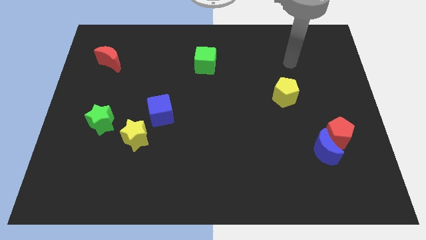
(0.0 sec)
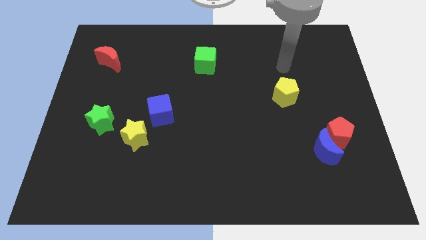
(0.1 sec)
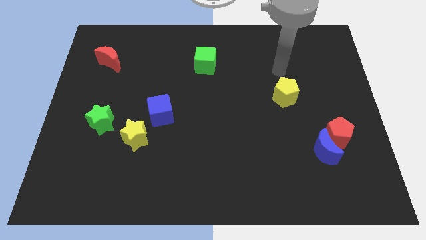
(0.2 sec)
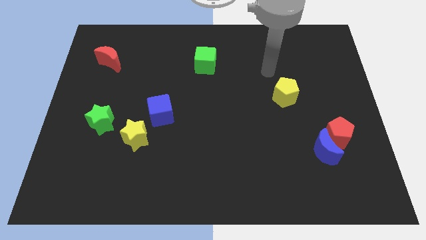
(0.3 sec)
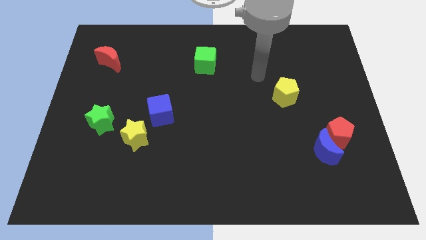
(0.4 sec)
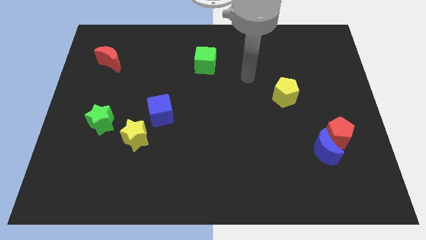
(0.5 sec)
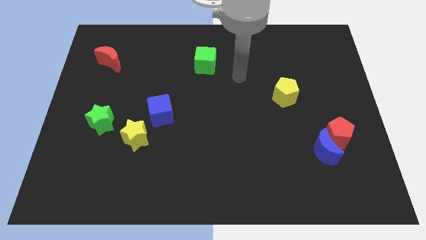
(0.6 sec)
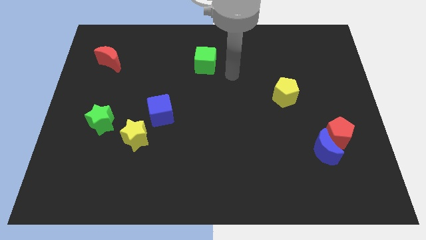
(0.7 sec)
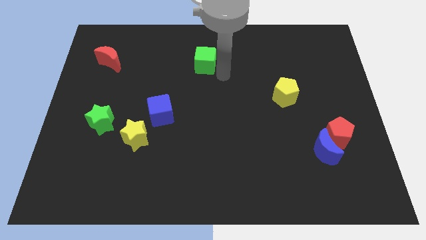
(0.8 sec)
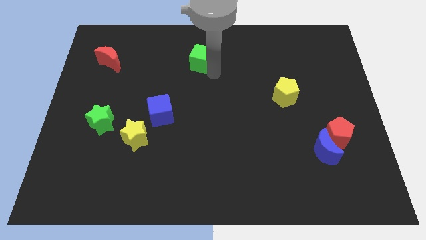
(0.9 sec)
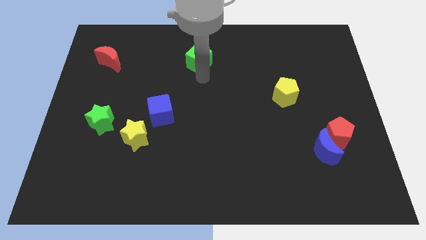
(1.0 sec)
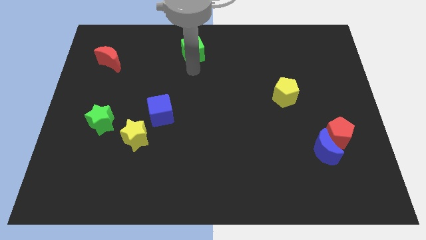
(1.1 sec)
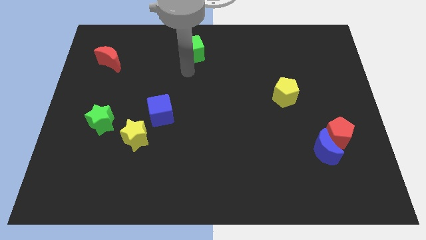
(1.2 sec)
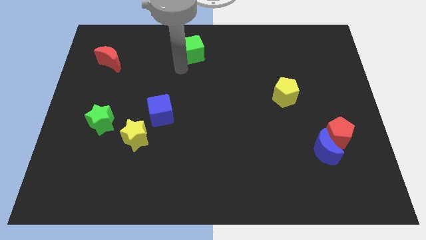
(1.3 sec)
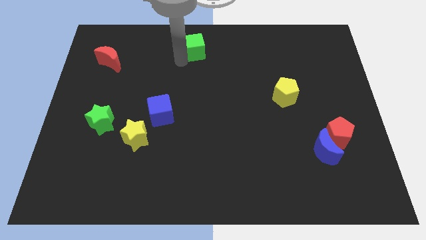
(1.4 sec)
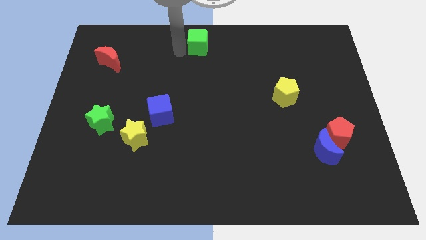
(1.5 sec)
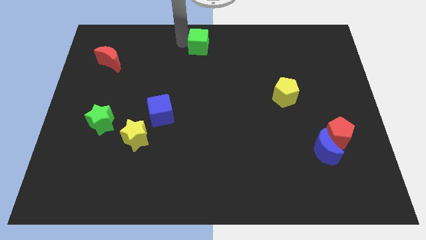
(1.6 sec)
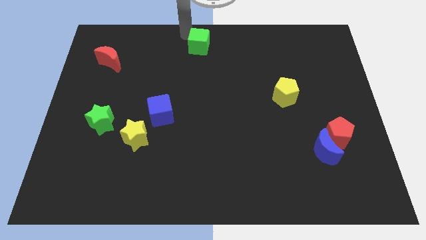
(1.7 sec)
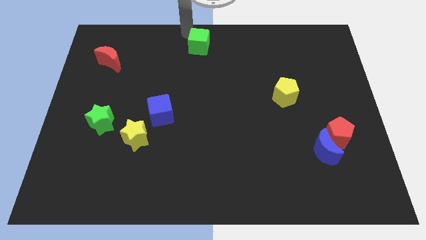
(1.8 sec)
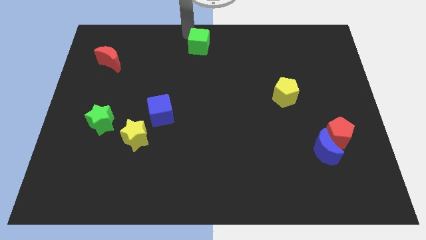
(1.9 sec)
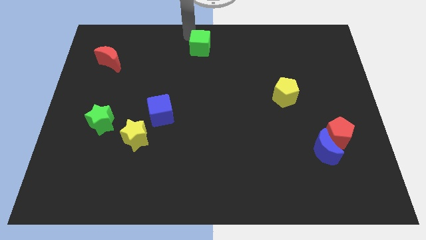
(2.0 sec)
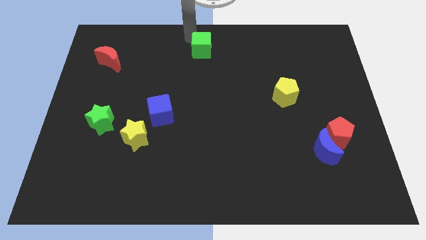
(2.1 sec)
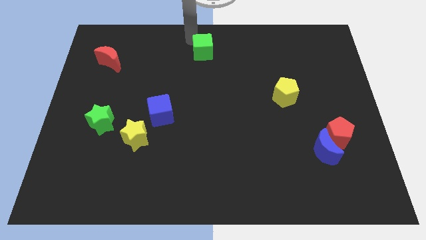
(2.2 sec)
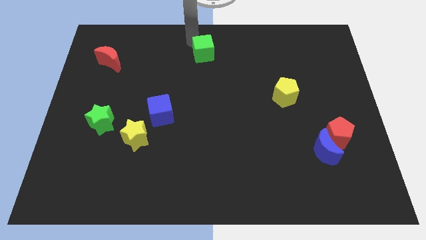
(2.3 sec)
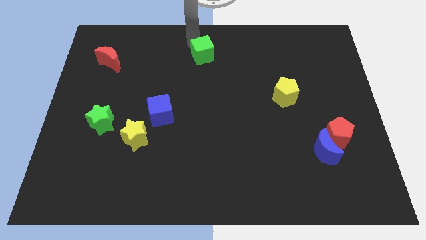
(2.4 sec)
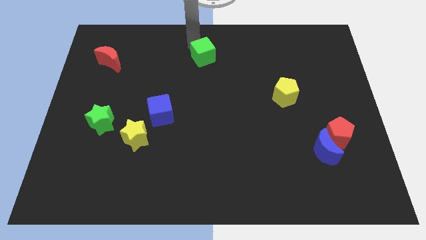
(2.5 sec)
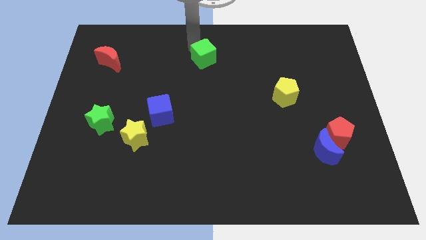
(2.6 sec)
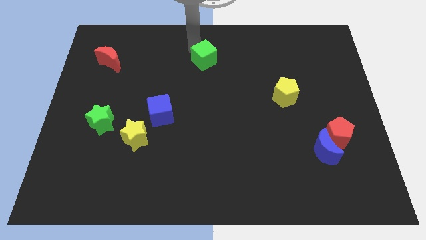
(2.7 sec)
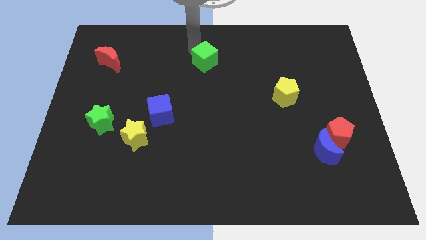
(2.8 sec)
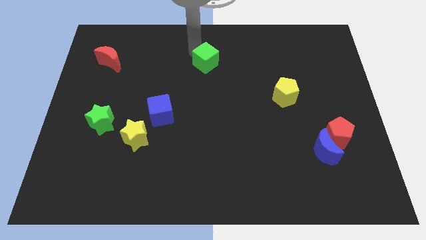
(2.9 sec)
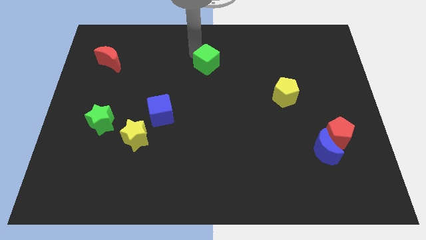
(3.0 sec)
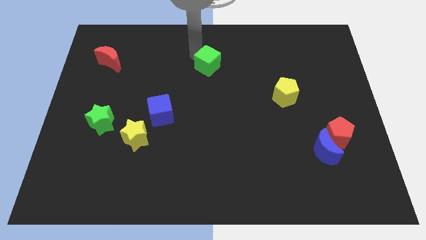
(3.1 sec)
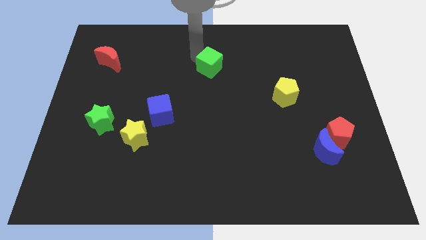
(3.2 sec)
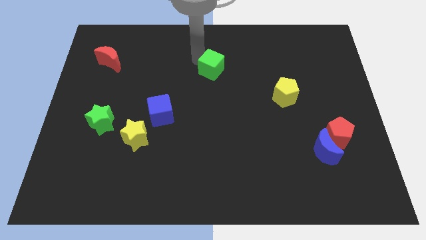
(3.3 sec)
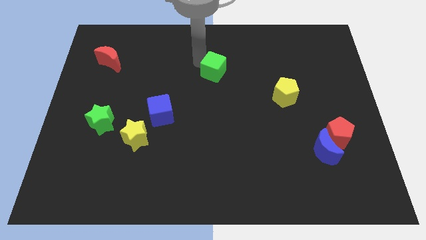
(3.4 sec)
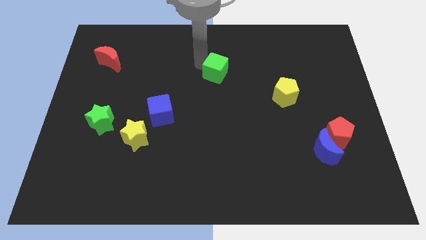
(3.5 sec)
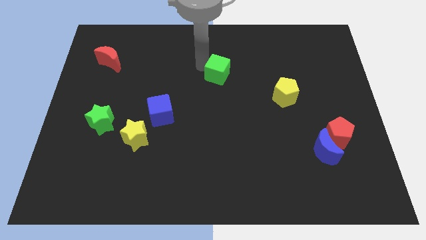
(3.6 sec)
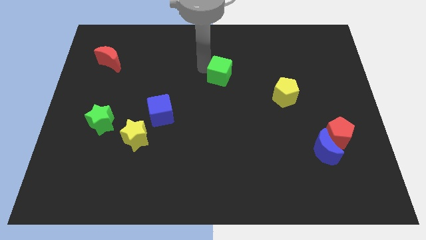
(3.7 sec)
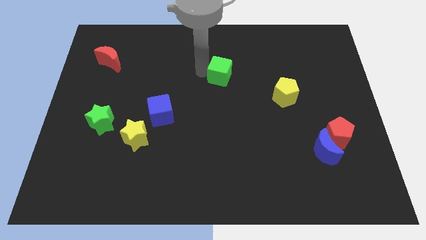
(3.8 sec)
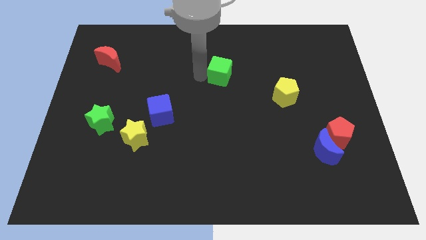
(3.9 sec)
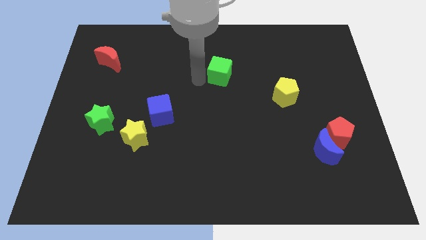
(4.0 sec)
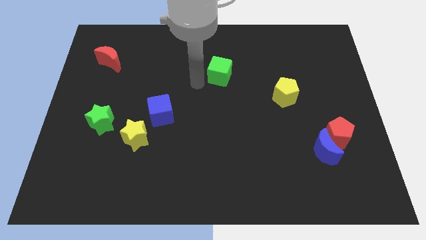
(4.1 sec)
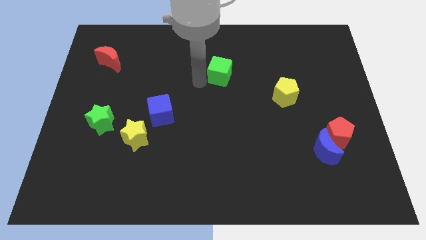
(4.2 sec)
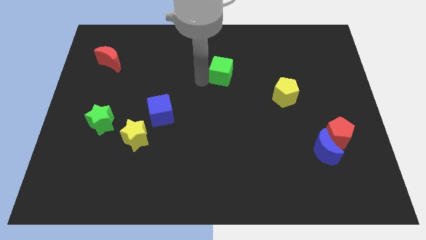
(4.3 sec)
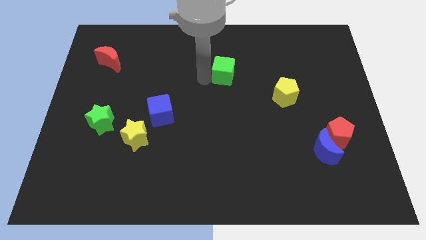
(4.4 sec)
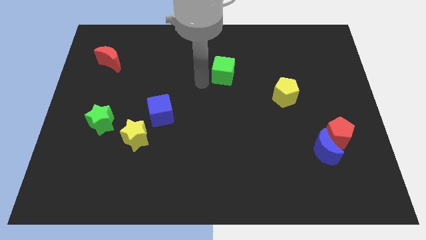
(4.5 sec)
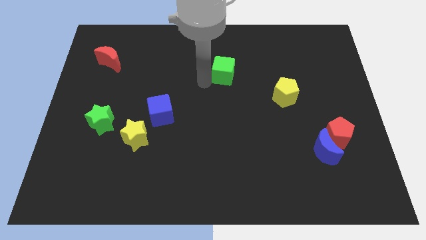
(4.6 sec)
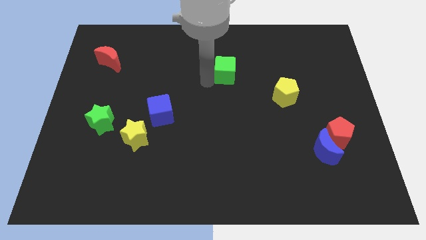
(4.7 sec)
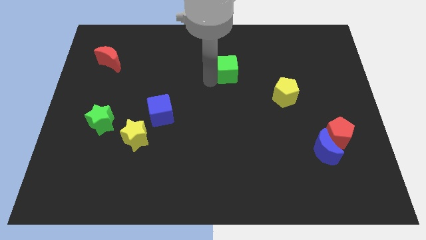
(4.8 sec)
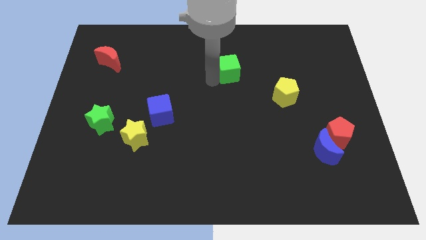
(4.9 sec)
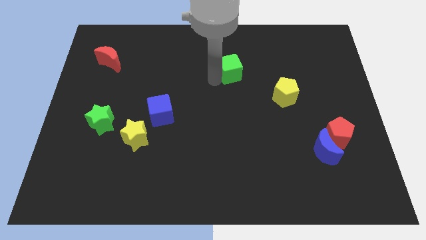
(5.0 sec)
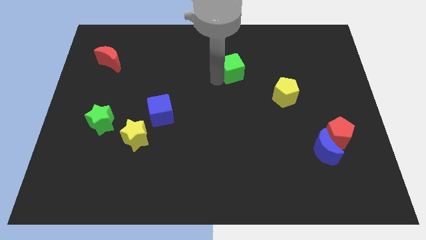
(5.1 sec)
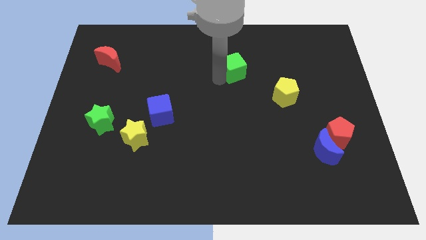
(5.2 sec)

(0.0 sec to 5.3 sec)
slightly push the green cube right

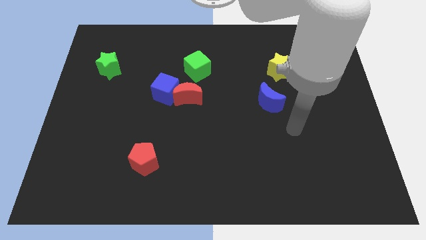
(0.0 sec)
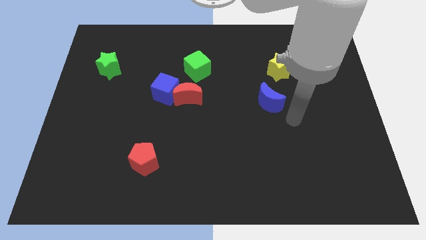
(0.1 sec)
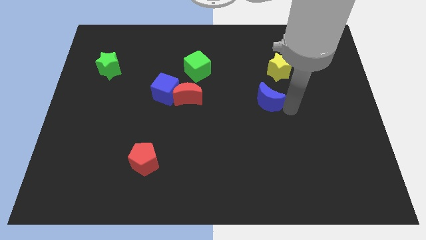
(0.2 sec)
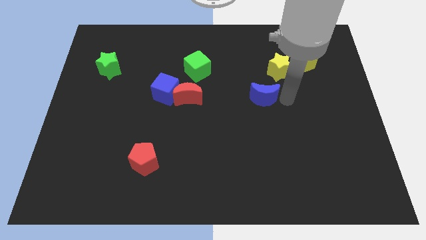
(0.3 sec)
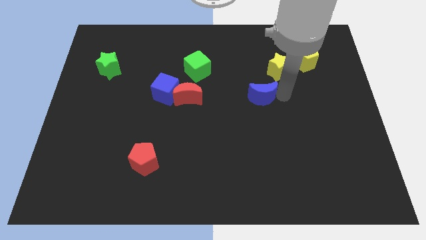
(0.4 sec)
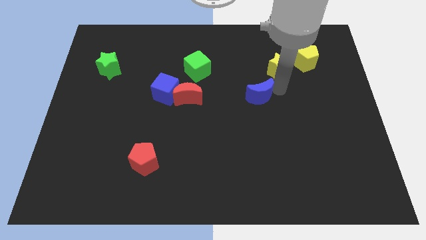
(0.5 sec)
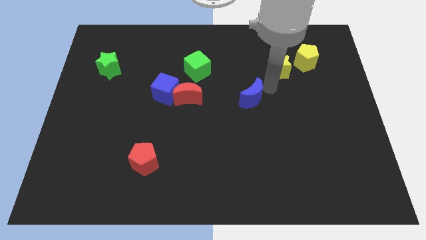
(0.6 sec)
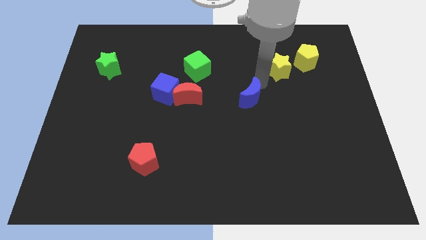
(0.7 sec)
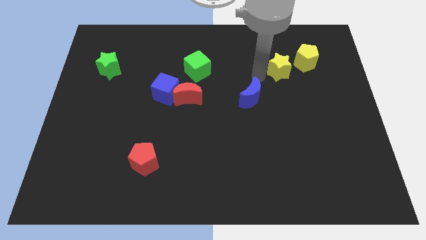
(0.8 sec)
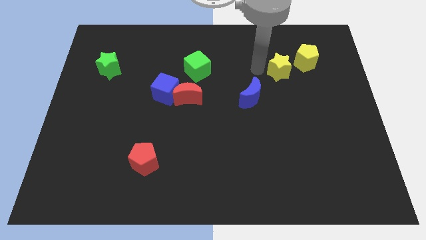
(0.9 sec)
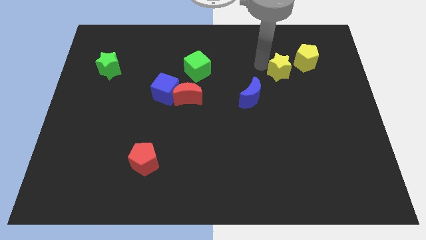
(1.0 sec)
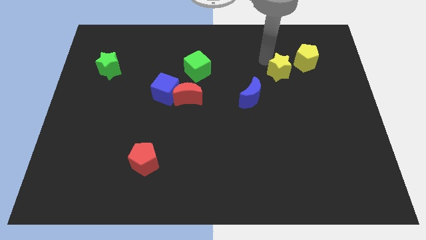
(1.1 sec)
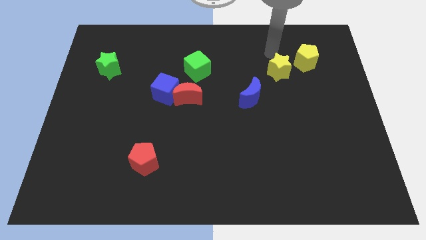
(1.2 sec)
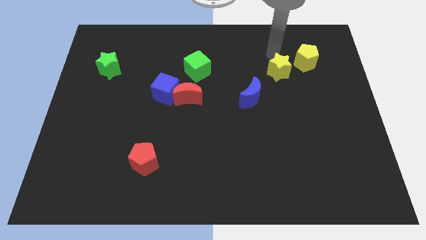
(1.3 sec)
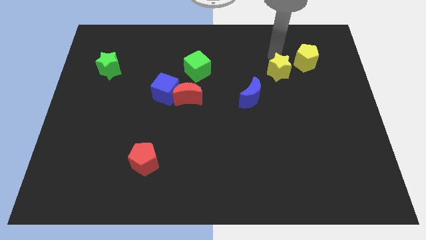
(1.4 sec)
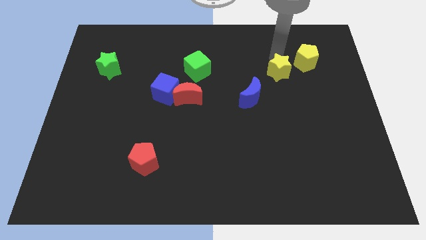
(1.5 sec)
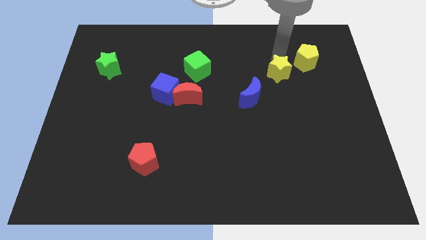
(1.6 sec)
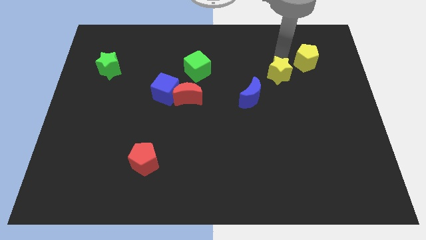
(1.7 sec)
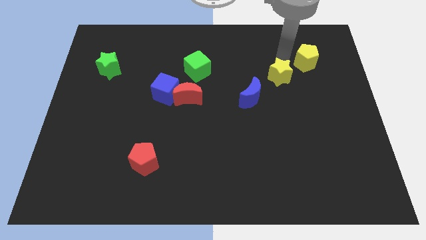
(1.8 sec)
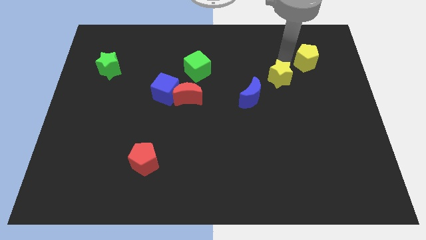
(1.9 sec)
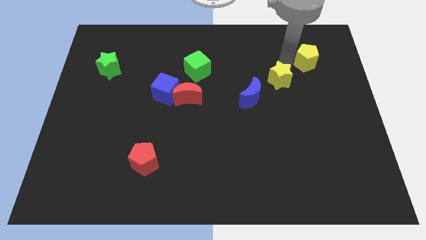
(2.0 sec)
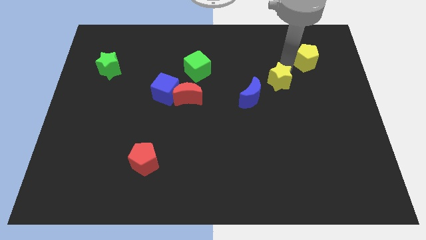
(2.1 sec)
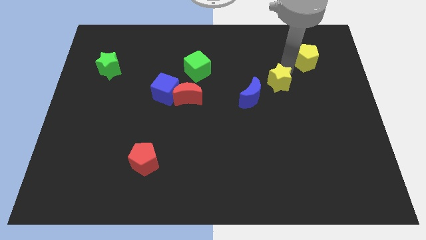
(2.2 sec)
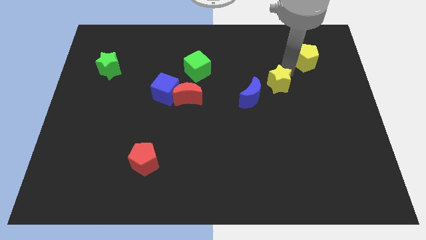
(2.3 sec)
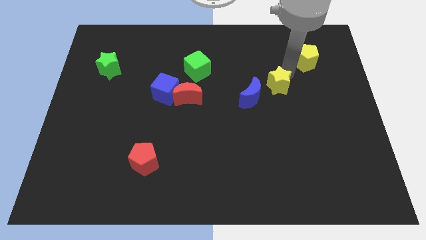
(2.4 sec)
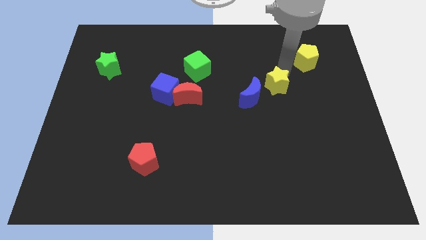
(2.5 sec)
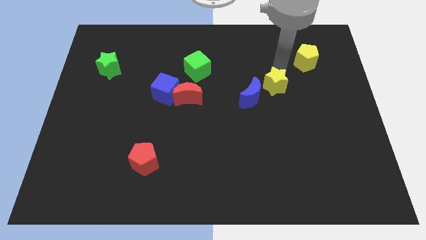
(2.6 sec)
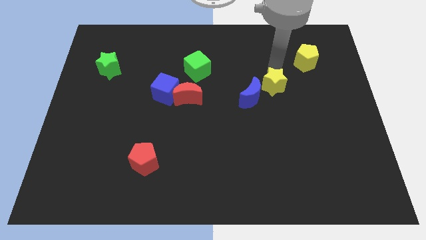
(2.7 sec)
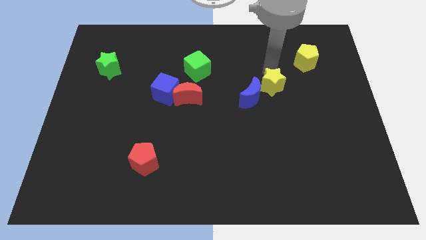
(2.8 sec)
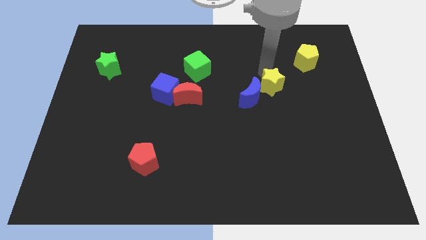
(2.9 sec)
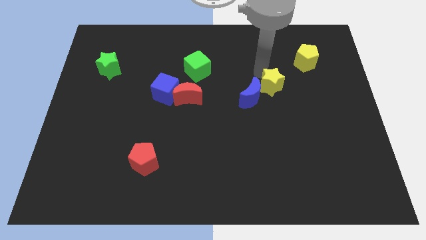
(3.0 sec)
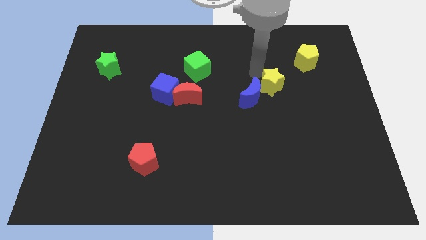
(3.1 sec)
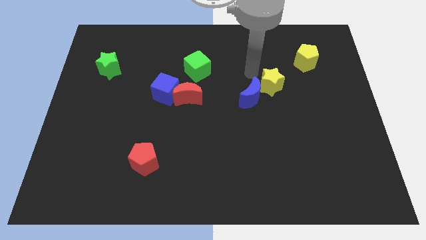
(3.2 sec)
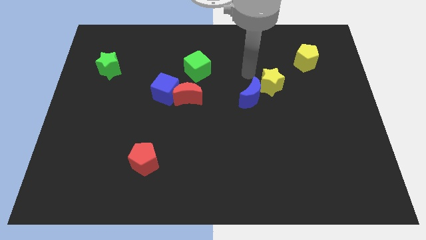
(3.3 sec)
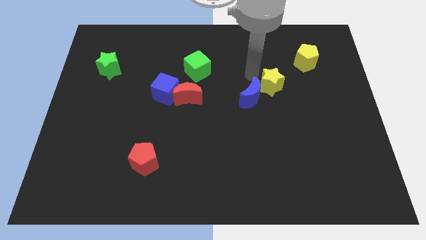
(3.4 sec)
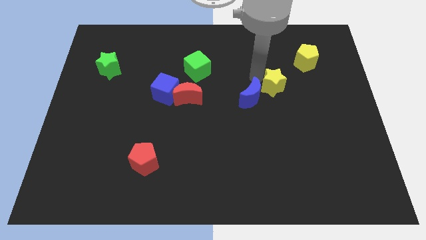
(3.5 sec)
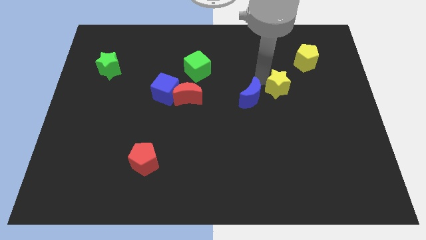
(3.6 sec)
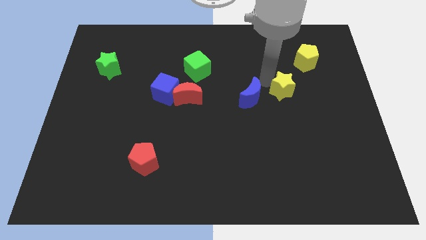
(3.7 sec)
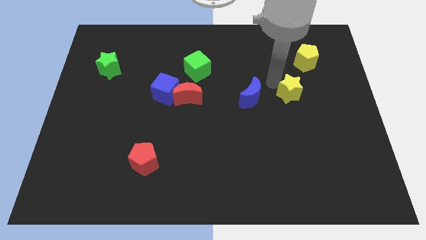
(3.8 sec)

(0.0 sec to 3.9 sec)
push the yellow star a bit down
